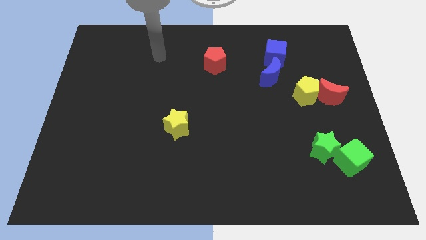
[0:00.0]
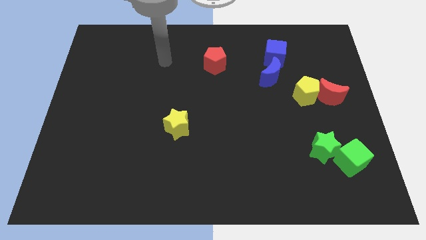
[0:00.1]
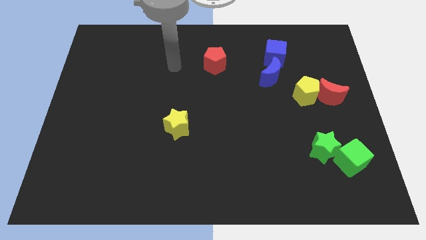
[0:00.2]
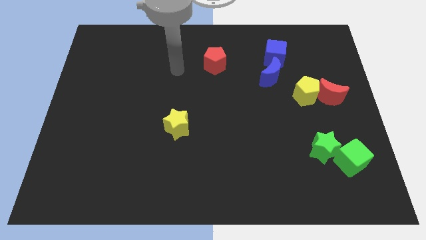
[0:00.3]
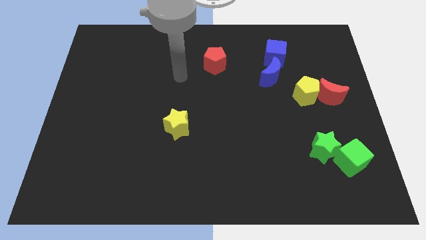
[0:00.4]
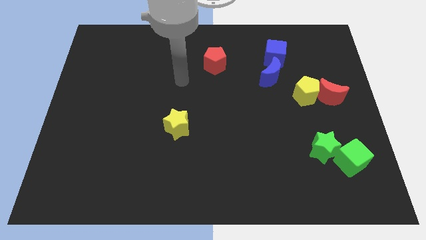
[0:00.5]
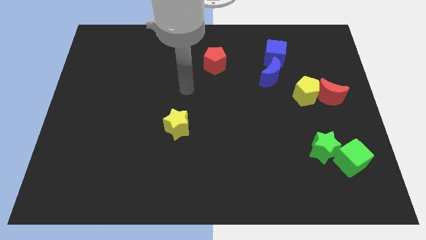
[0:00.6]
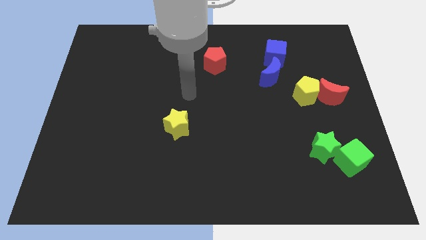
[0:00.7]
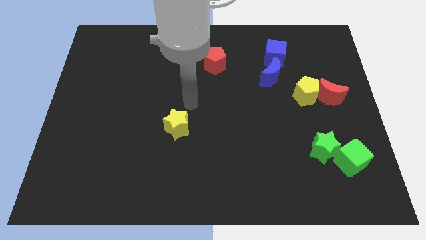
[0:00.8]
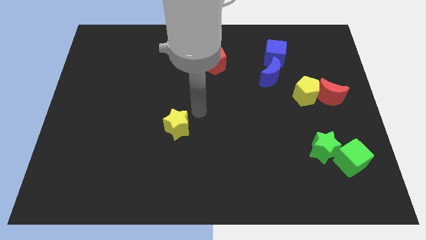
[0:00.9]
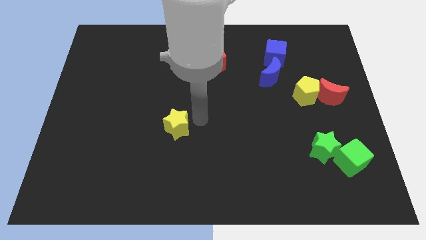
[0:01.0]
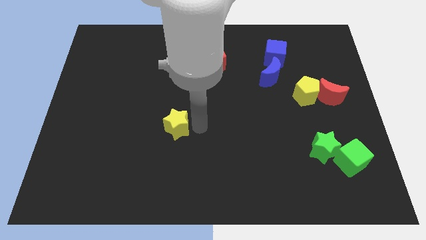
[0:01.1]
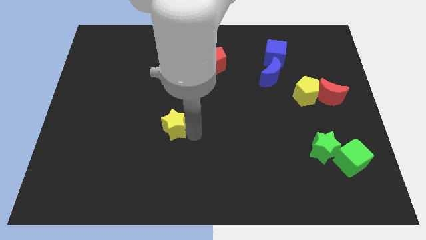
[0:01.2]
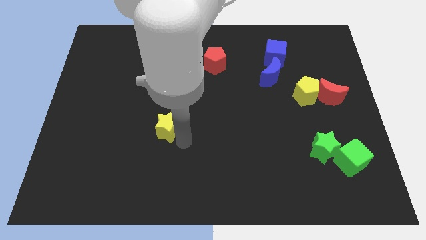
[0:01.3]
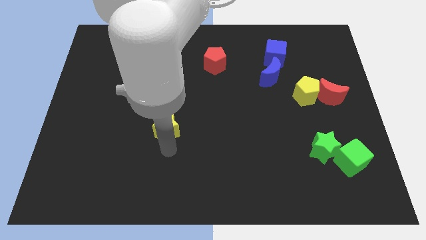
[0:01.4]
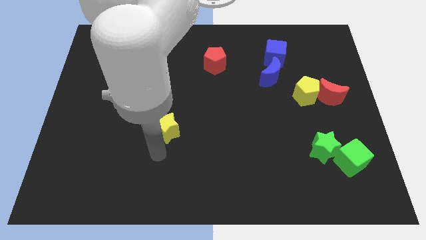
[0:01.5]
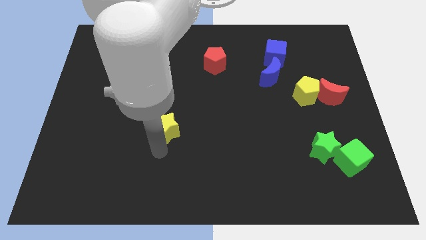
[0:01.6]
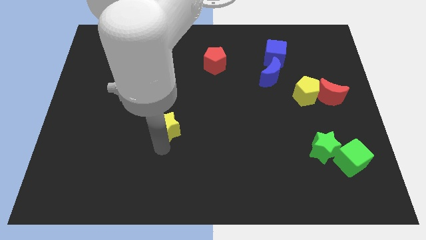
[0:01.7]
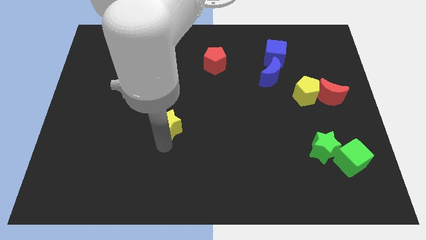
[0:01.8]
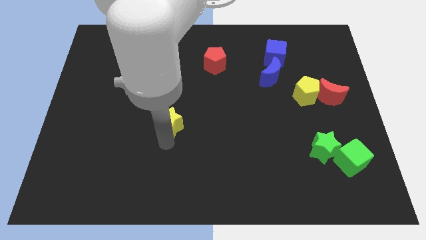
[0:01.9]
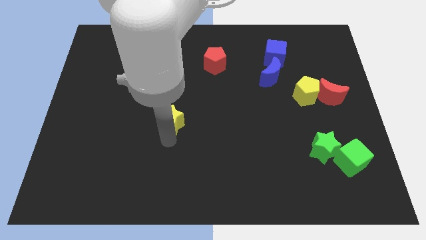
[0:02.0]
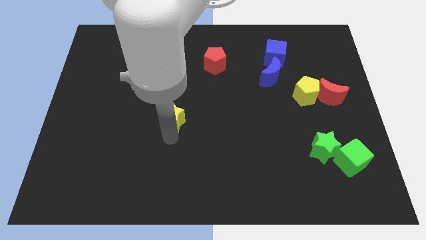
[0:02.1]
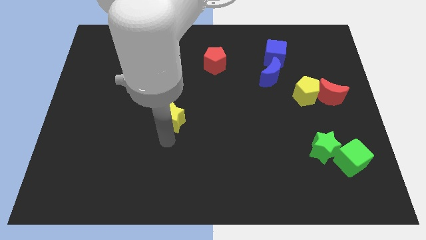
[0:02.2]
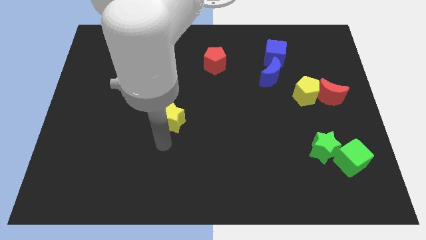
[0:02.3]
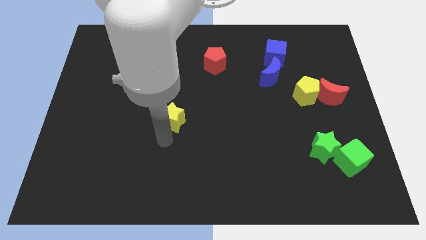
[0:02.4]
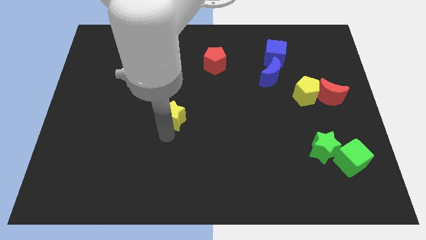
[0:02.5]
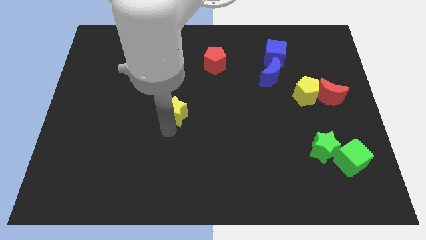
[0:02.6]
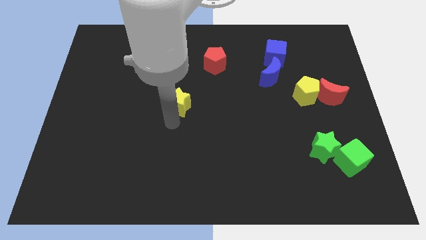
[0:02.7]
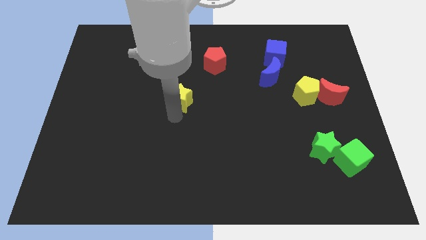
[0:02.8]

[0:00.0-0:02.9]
slightly push the yellow star up

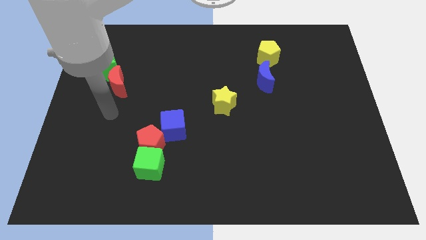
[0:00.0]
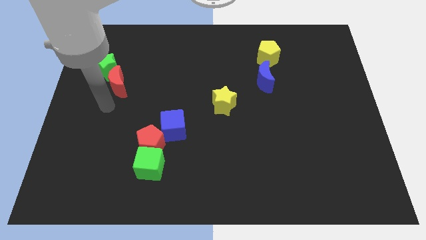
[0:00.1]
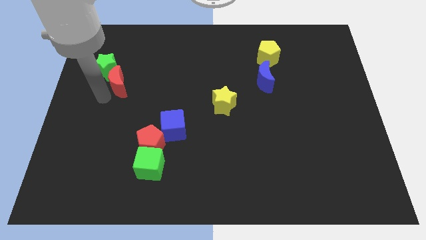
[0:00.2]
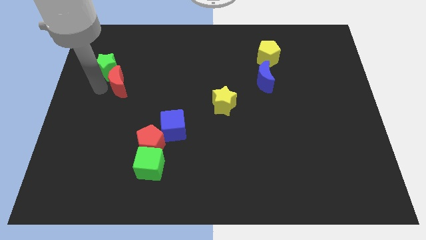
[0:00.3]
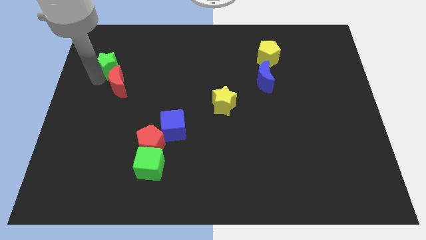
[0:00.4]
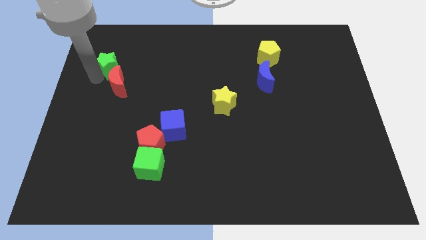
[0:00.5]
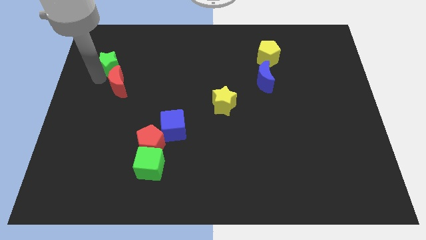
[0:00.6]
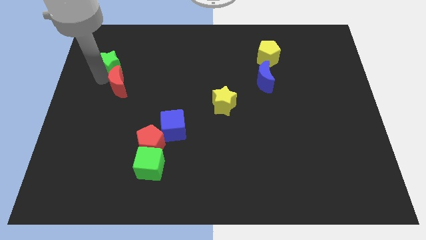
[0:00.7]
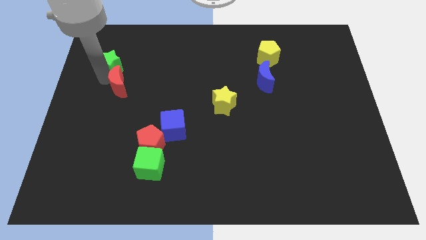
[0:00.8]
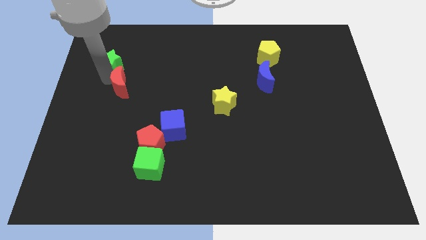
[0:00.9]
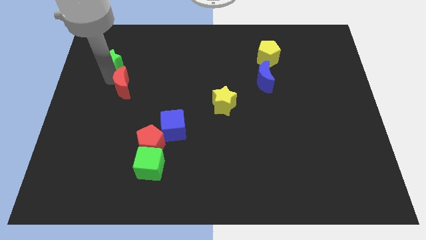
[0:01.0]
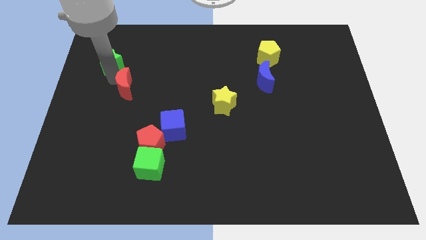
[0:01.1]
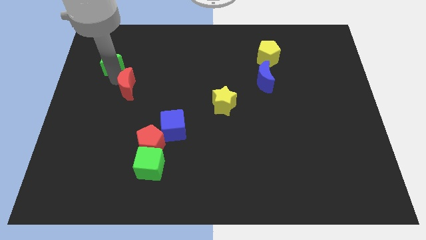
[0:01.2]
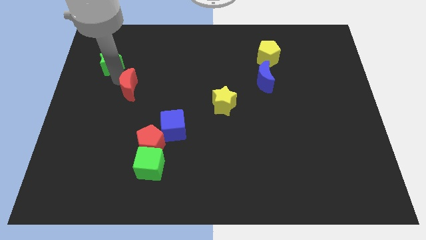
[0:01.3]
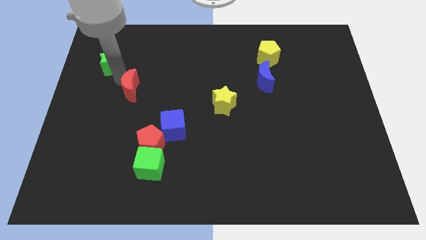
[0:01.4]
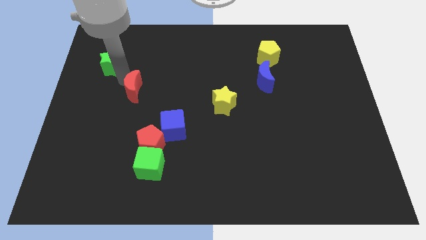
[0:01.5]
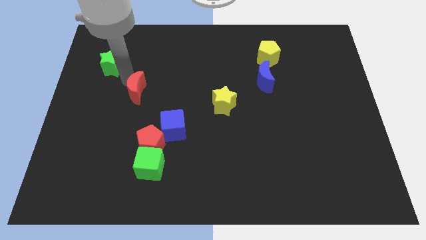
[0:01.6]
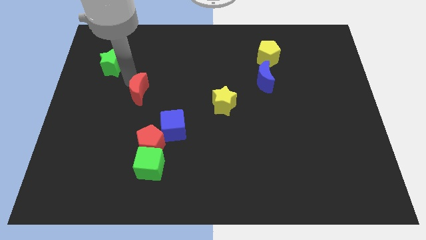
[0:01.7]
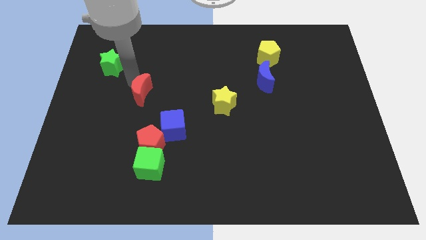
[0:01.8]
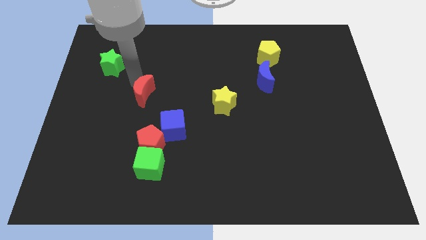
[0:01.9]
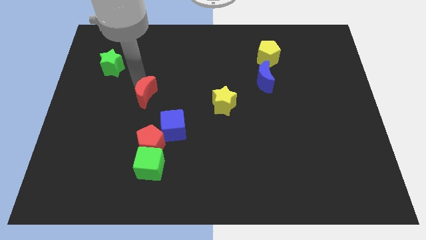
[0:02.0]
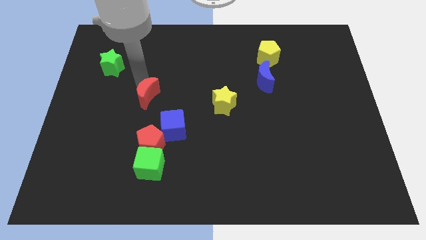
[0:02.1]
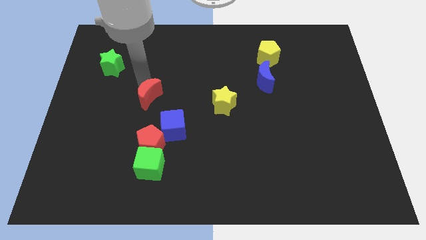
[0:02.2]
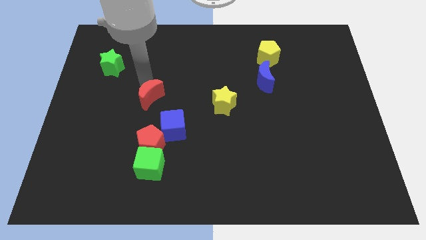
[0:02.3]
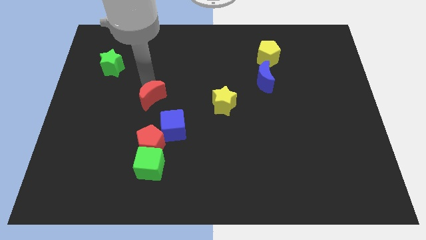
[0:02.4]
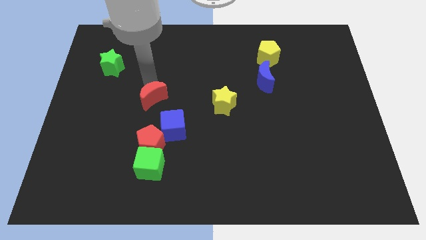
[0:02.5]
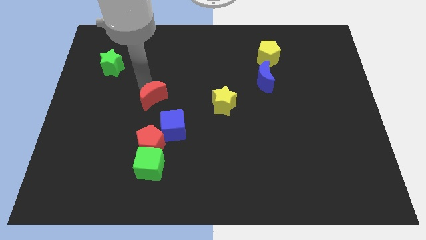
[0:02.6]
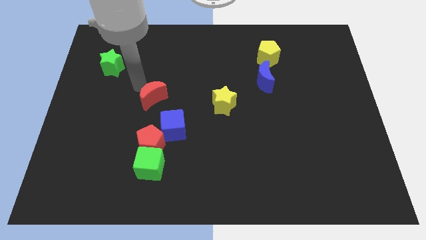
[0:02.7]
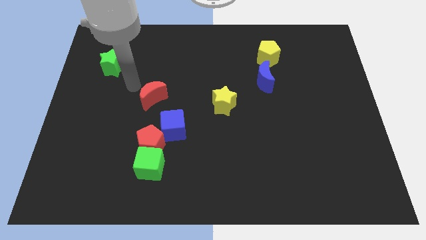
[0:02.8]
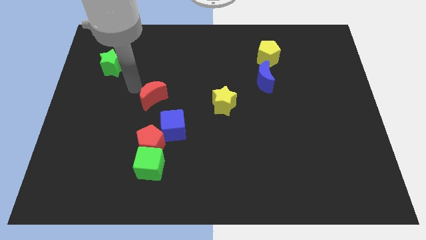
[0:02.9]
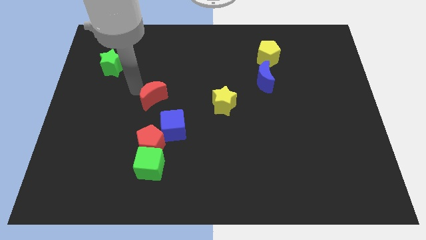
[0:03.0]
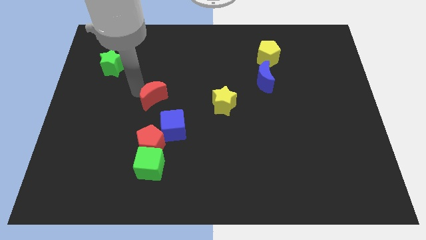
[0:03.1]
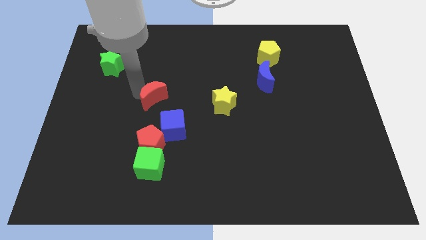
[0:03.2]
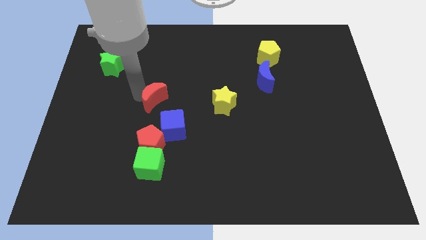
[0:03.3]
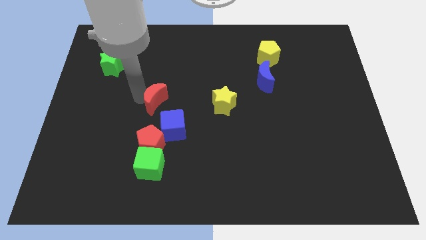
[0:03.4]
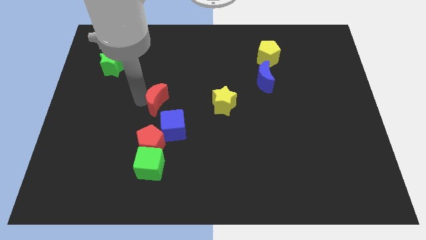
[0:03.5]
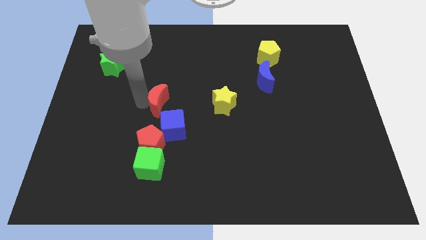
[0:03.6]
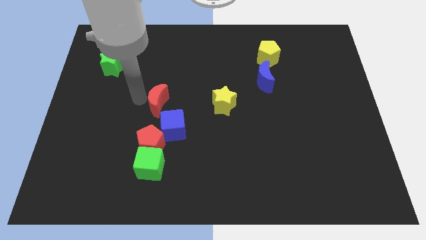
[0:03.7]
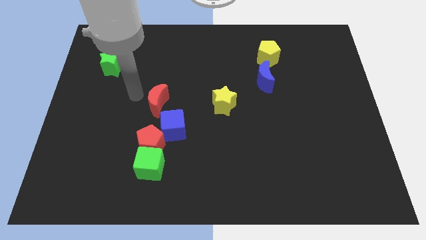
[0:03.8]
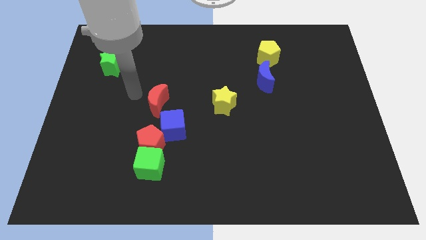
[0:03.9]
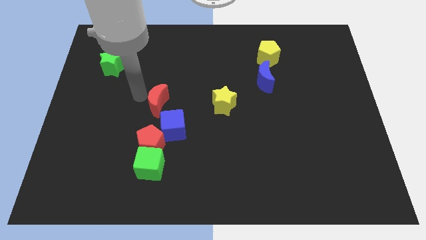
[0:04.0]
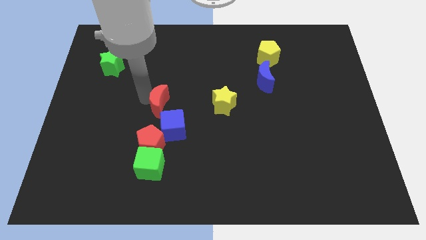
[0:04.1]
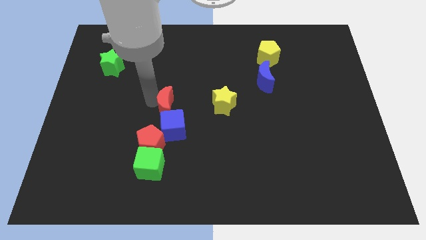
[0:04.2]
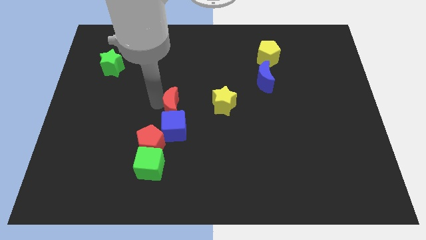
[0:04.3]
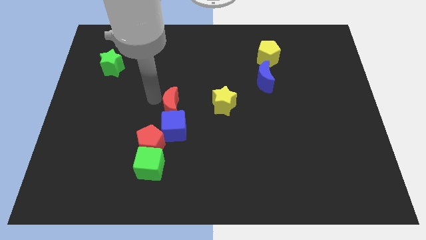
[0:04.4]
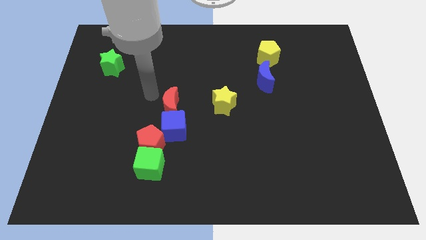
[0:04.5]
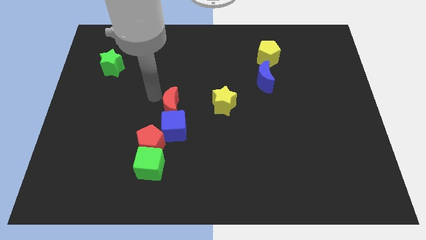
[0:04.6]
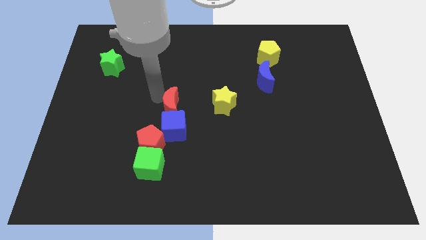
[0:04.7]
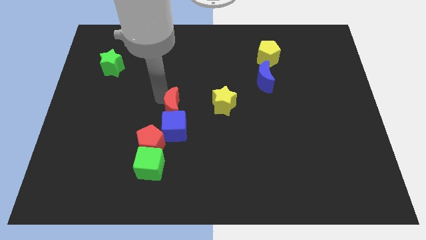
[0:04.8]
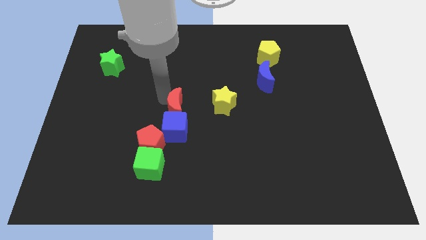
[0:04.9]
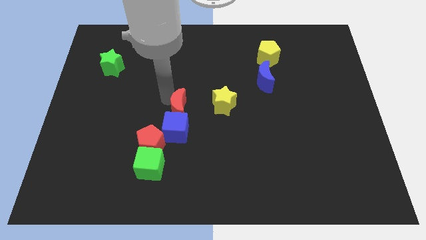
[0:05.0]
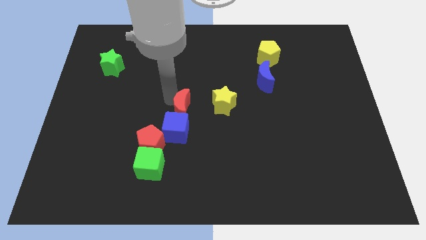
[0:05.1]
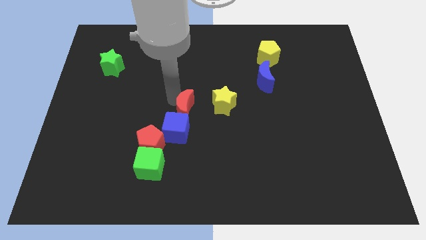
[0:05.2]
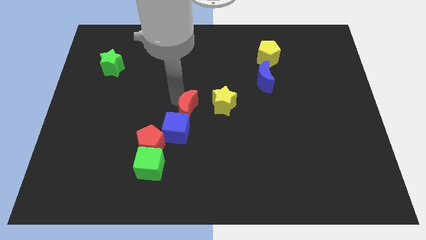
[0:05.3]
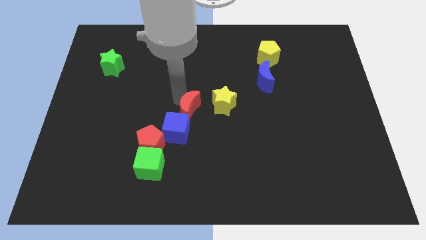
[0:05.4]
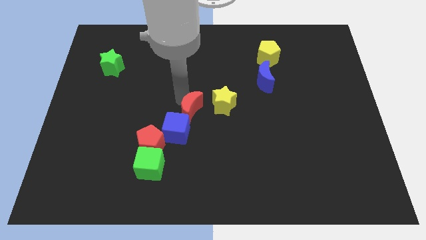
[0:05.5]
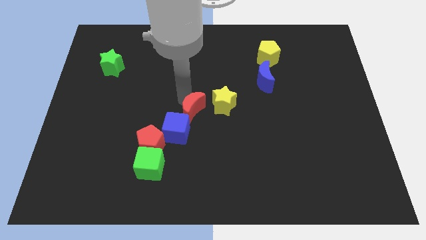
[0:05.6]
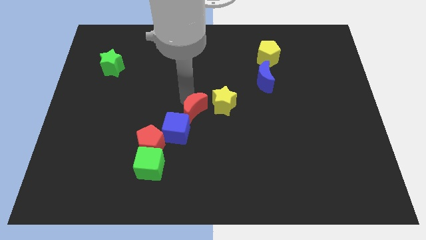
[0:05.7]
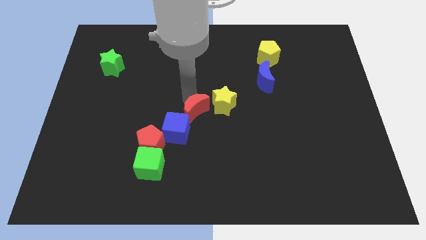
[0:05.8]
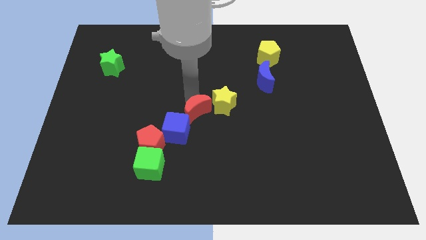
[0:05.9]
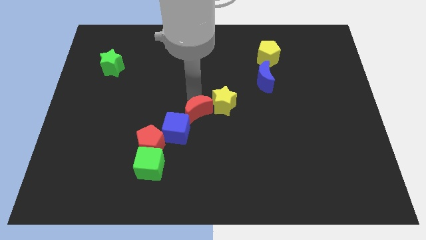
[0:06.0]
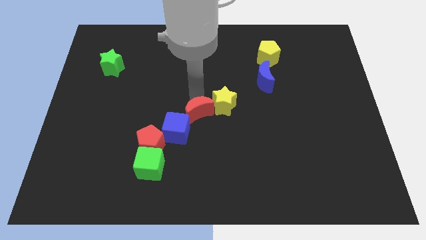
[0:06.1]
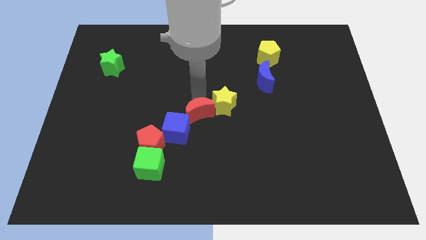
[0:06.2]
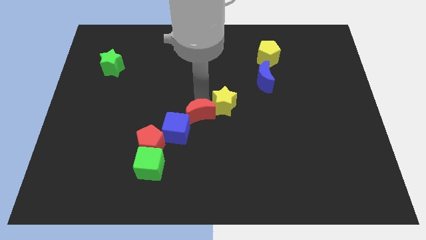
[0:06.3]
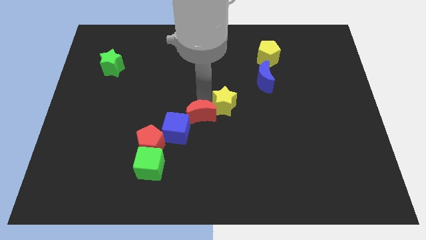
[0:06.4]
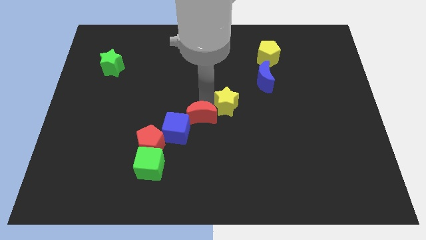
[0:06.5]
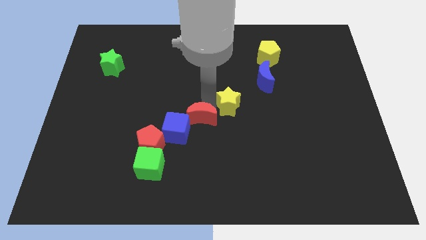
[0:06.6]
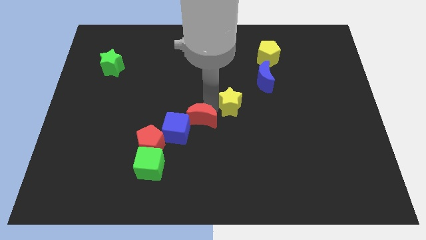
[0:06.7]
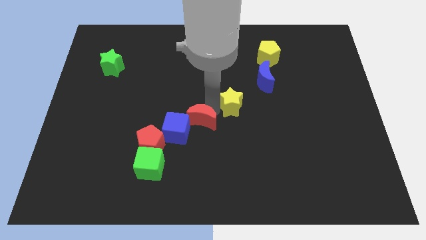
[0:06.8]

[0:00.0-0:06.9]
push the red moon downwards and to the right
